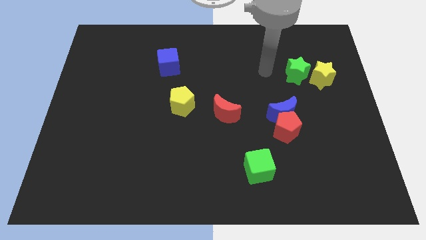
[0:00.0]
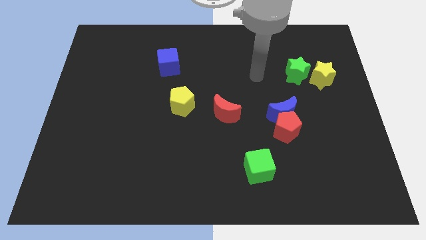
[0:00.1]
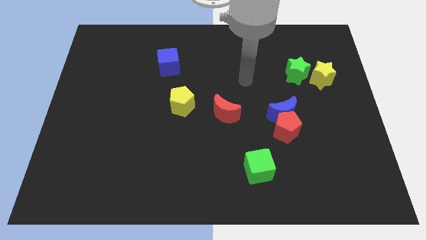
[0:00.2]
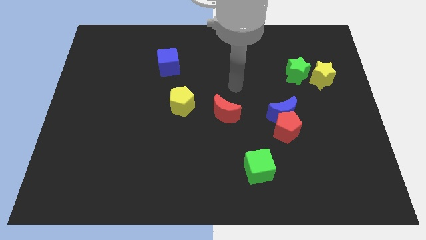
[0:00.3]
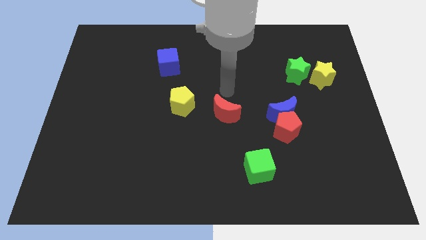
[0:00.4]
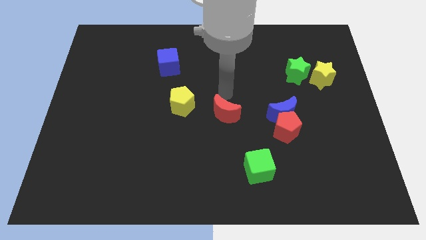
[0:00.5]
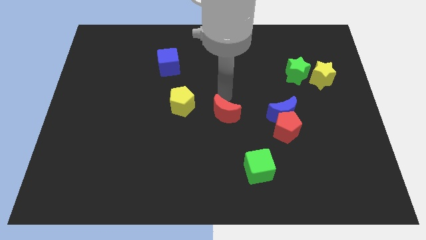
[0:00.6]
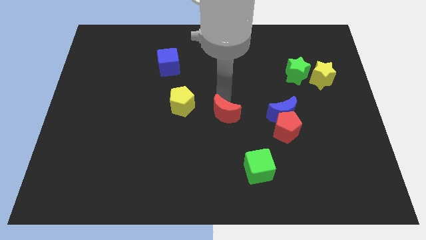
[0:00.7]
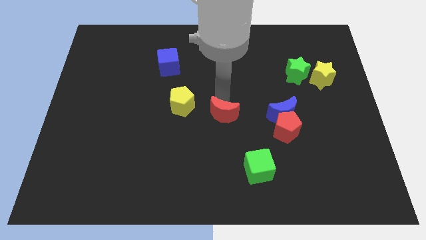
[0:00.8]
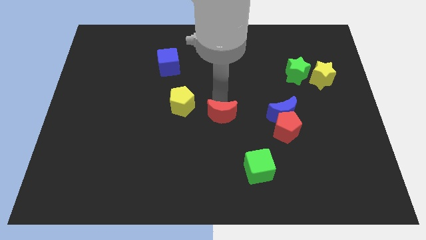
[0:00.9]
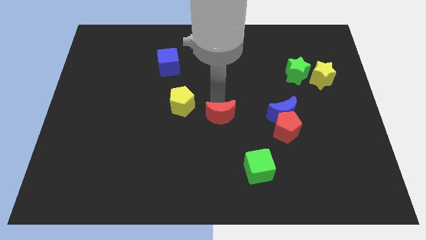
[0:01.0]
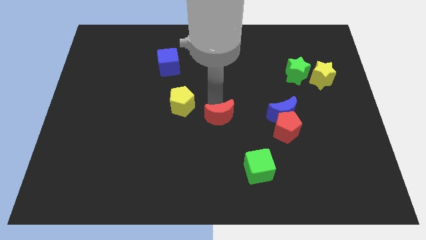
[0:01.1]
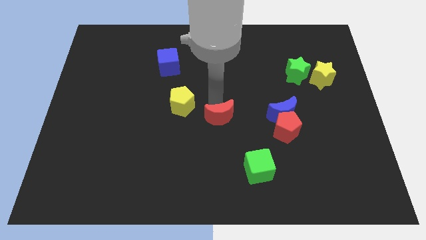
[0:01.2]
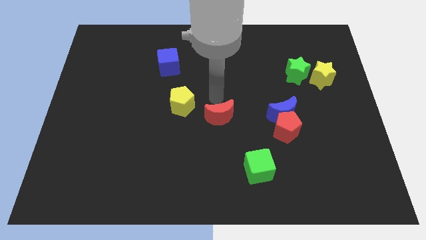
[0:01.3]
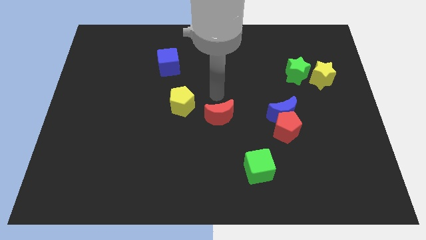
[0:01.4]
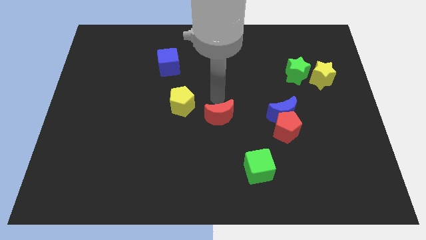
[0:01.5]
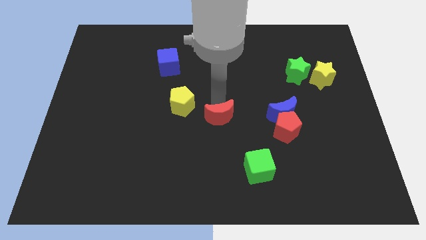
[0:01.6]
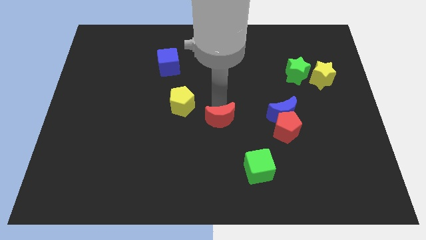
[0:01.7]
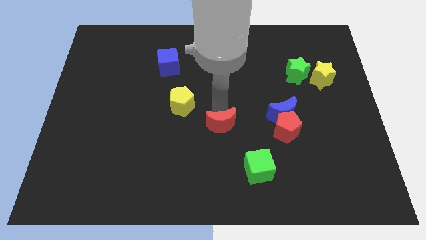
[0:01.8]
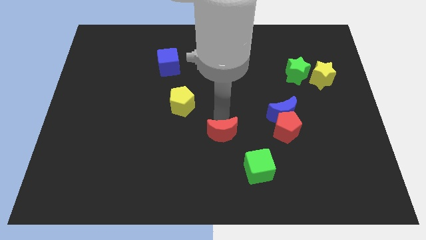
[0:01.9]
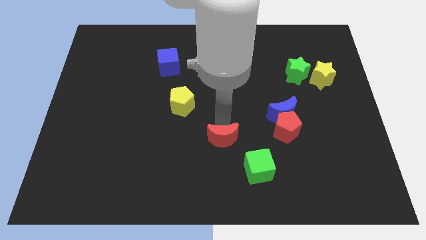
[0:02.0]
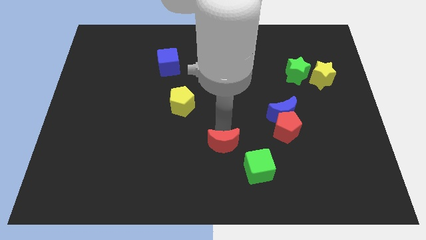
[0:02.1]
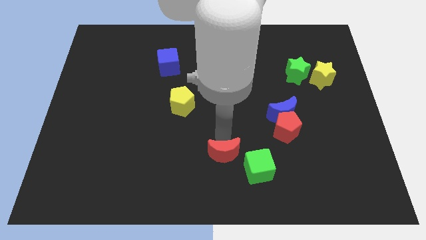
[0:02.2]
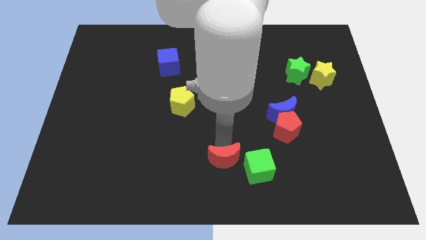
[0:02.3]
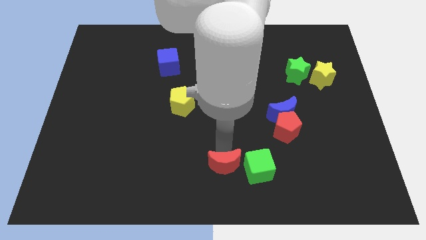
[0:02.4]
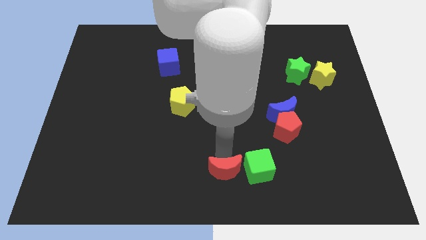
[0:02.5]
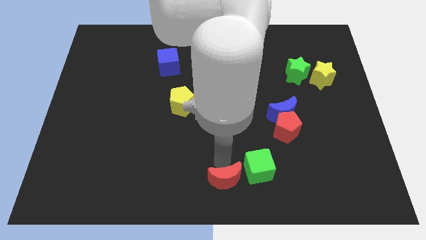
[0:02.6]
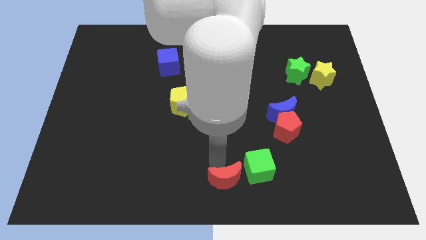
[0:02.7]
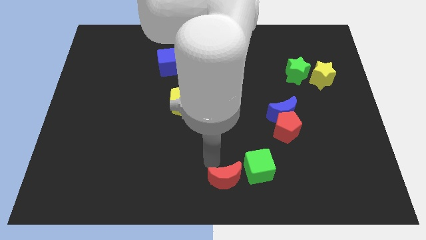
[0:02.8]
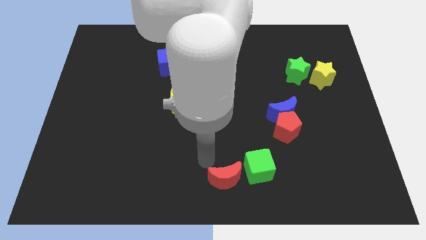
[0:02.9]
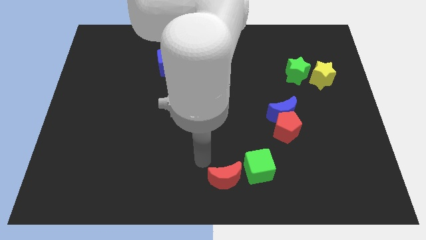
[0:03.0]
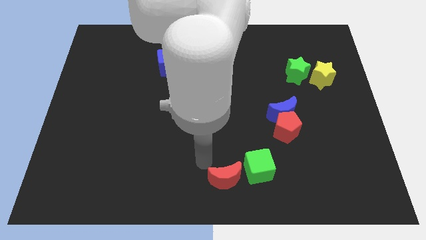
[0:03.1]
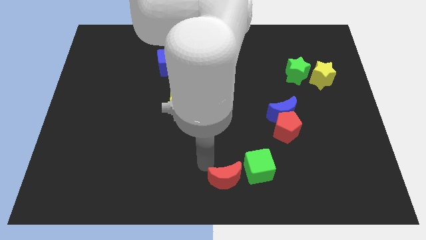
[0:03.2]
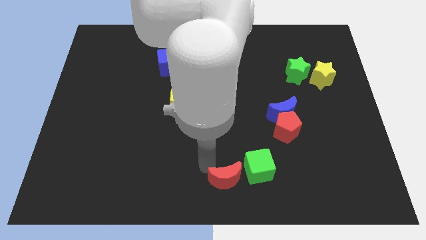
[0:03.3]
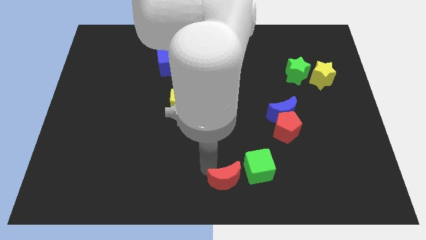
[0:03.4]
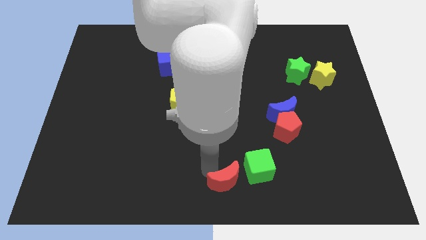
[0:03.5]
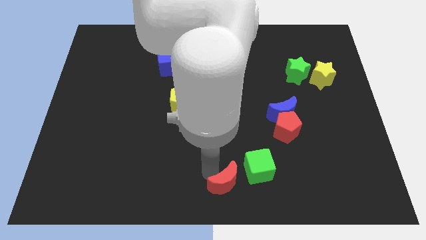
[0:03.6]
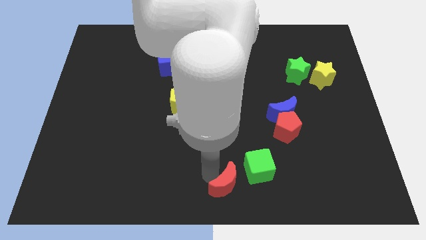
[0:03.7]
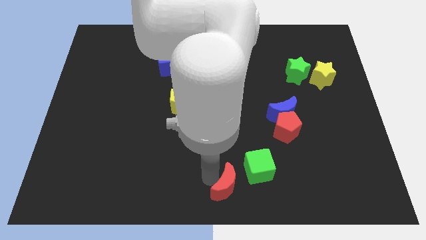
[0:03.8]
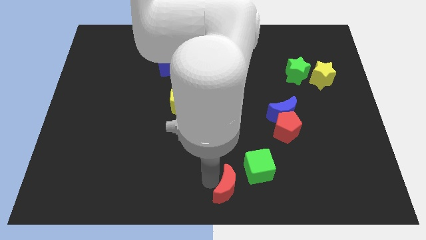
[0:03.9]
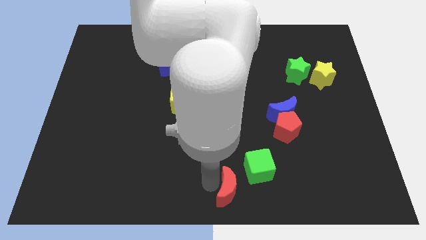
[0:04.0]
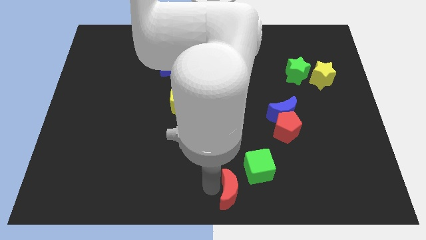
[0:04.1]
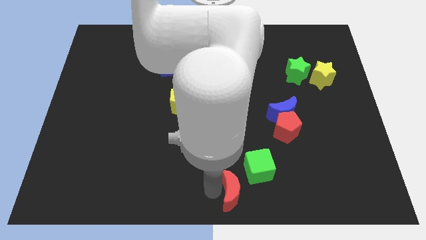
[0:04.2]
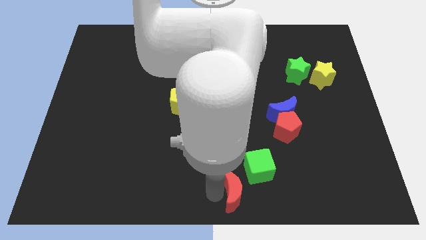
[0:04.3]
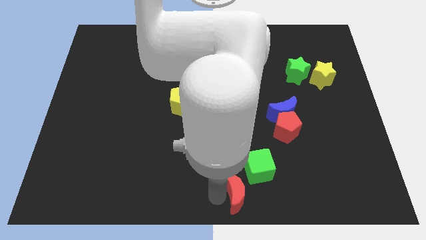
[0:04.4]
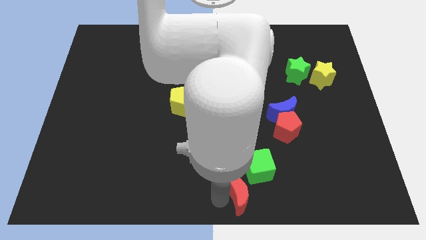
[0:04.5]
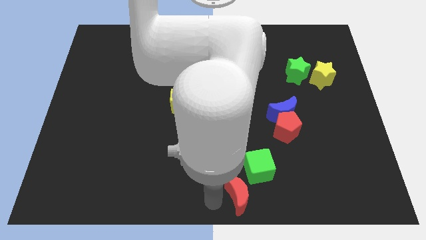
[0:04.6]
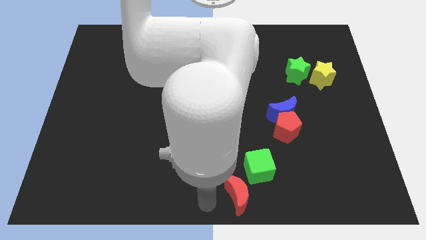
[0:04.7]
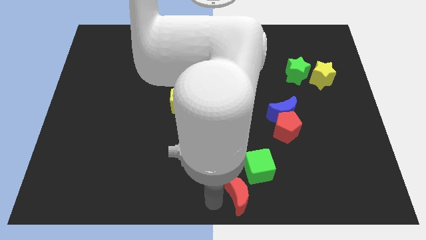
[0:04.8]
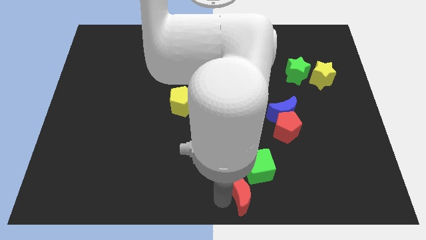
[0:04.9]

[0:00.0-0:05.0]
slightly move the red moon downwards and right diagonally

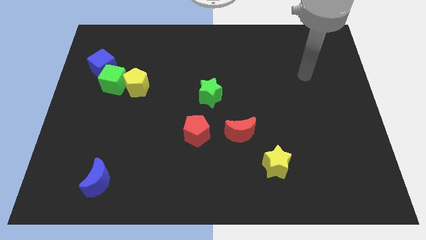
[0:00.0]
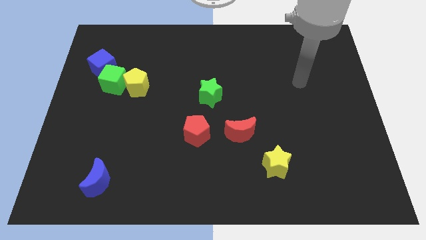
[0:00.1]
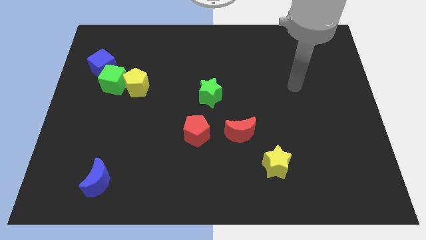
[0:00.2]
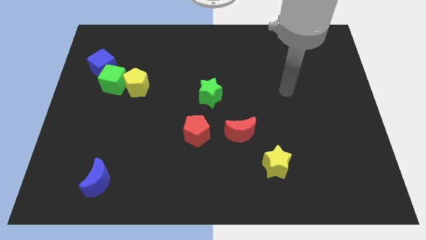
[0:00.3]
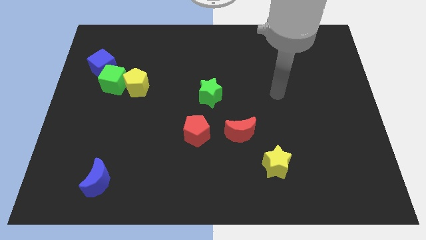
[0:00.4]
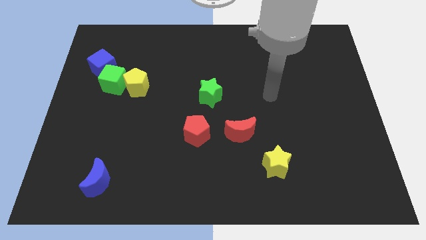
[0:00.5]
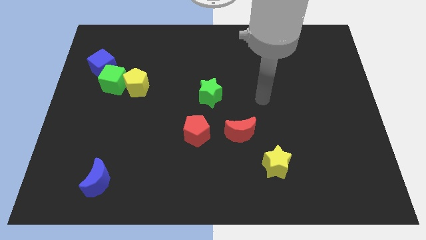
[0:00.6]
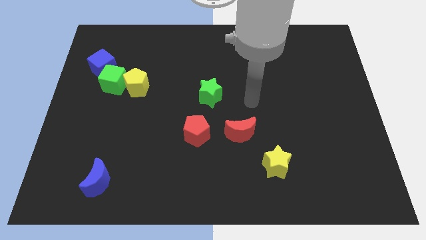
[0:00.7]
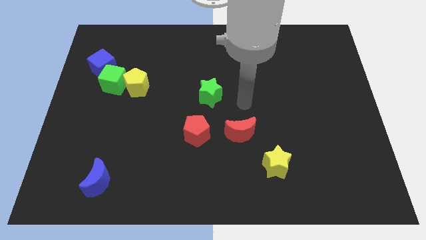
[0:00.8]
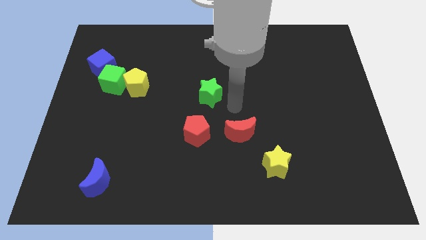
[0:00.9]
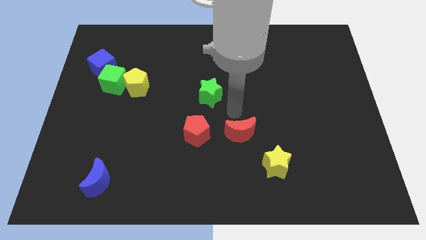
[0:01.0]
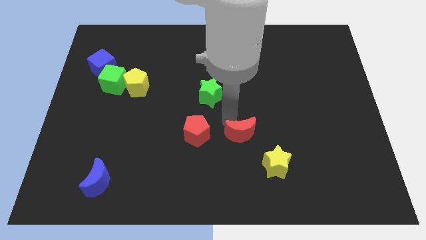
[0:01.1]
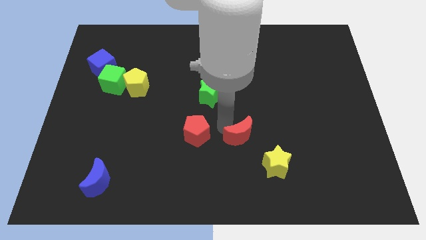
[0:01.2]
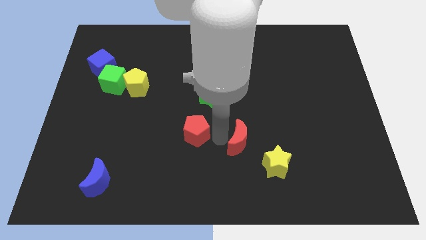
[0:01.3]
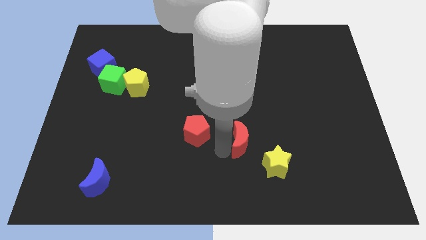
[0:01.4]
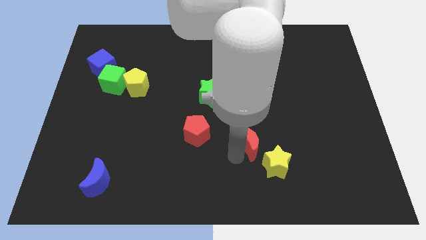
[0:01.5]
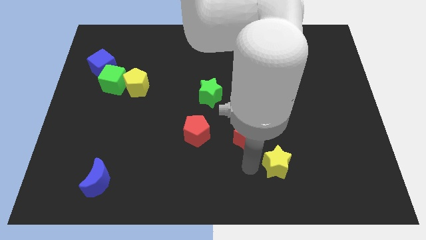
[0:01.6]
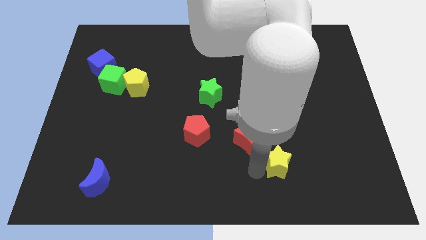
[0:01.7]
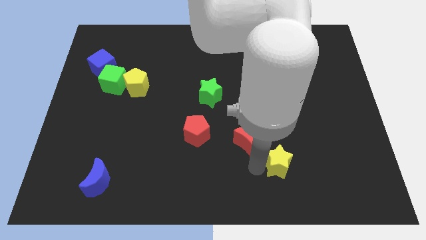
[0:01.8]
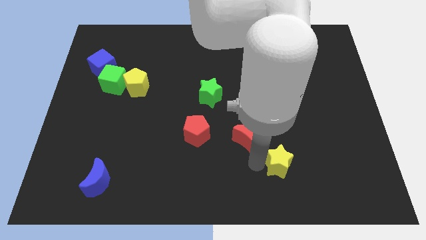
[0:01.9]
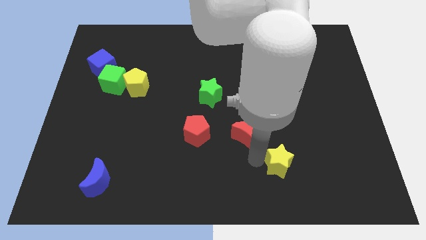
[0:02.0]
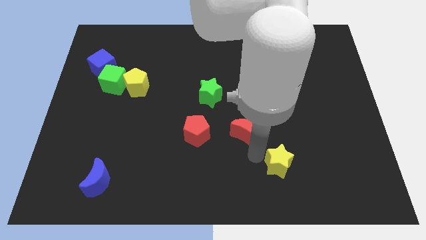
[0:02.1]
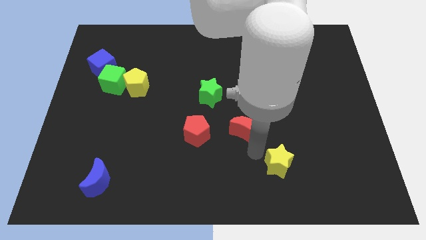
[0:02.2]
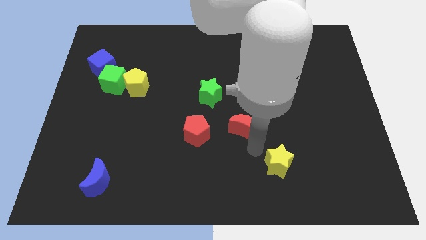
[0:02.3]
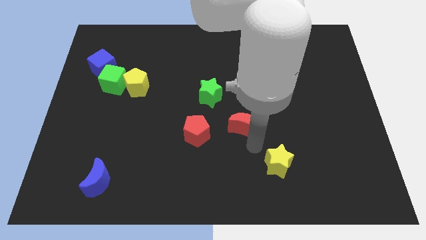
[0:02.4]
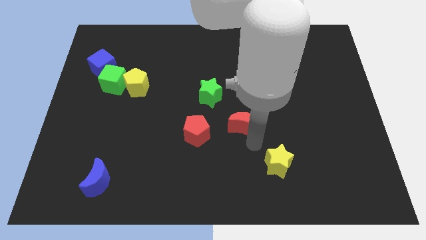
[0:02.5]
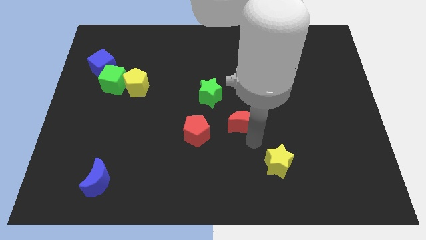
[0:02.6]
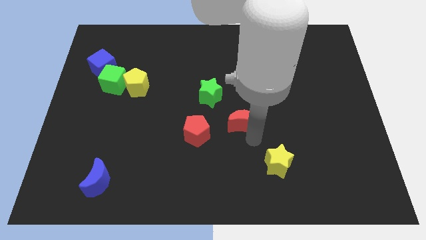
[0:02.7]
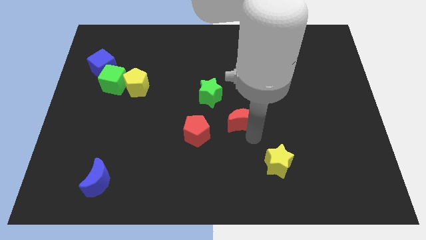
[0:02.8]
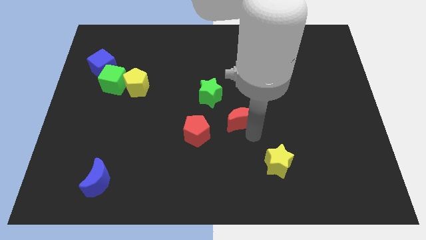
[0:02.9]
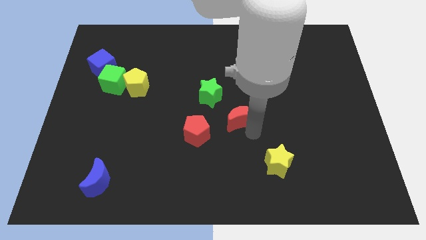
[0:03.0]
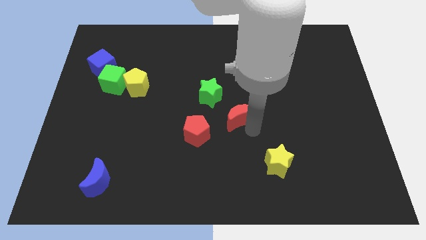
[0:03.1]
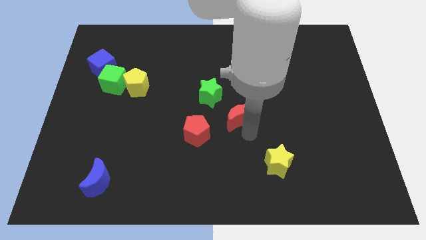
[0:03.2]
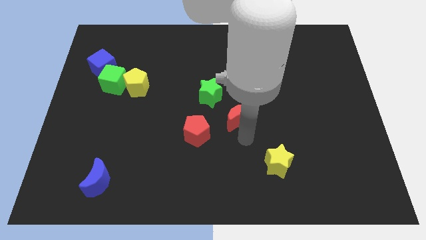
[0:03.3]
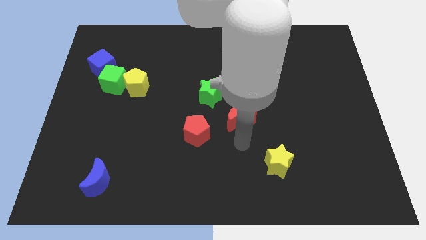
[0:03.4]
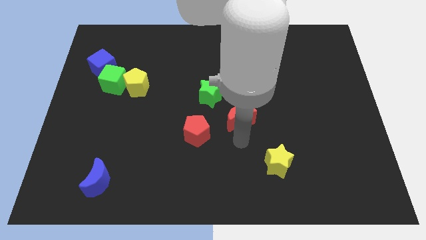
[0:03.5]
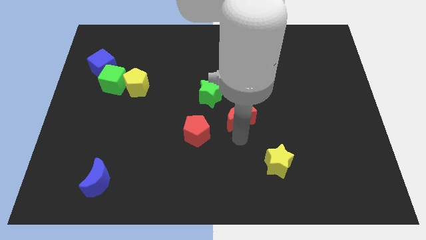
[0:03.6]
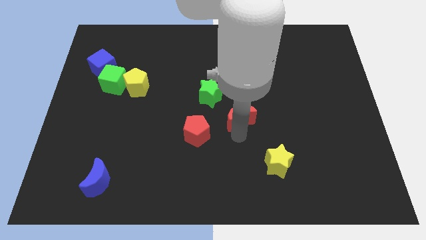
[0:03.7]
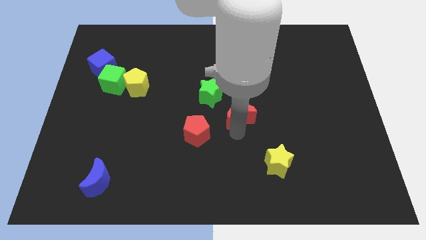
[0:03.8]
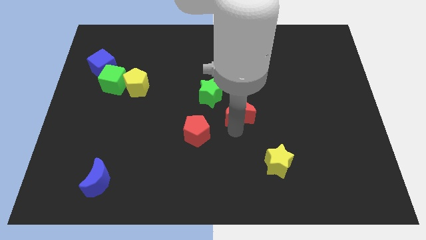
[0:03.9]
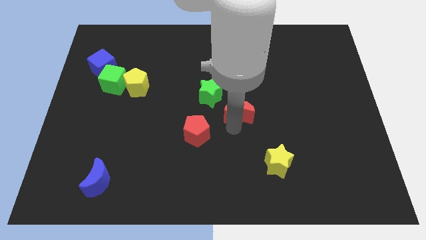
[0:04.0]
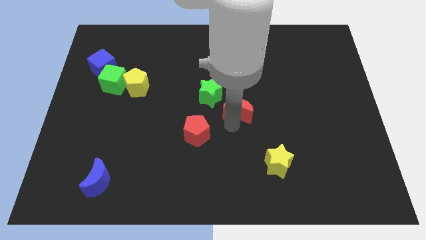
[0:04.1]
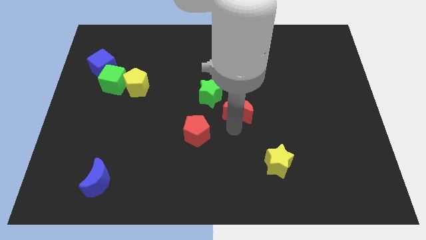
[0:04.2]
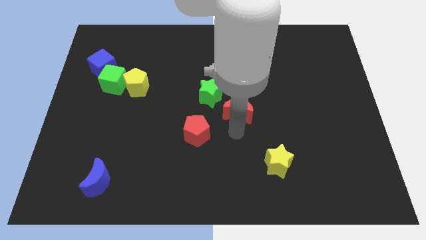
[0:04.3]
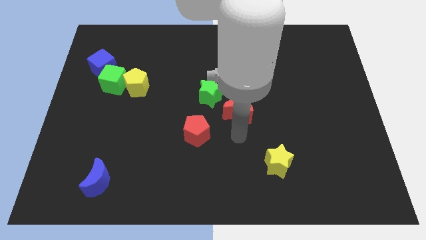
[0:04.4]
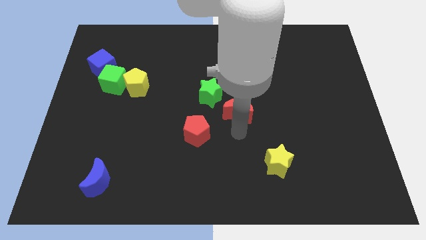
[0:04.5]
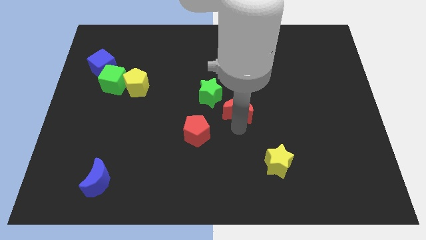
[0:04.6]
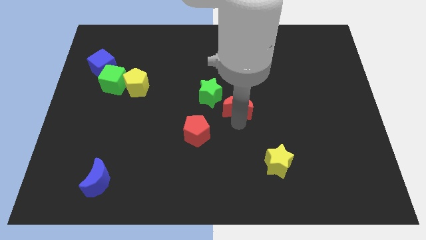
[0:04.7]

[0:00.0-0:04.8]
slightly move the red moon upwards
